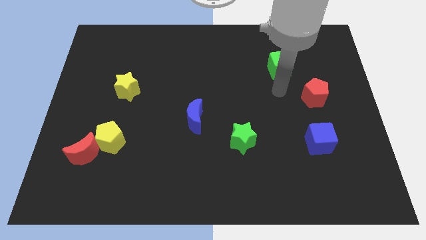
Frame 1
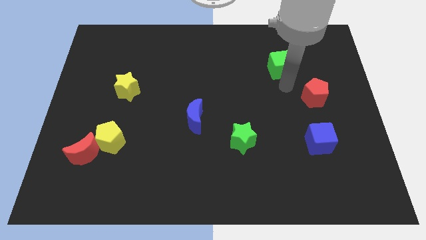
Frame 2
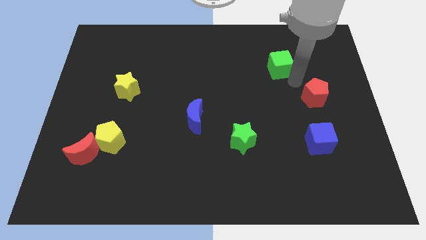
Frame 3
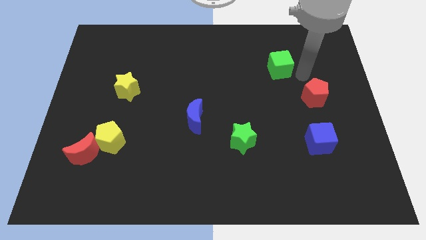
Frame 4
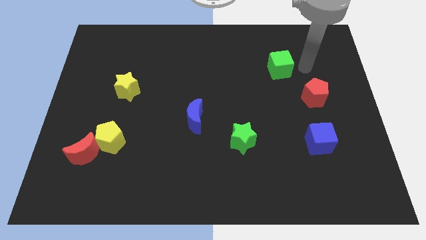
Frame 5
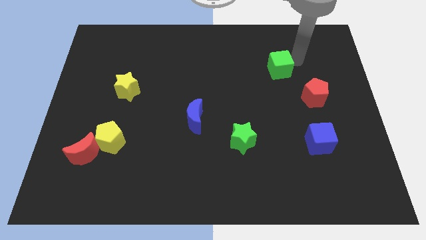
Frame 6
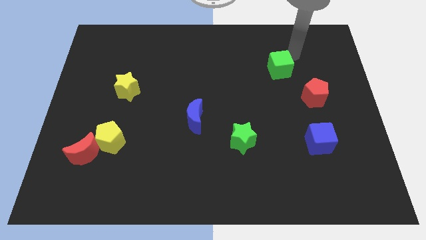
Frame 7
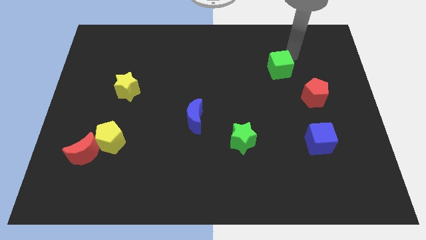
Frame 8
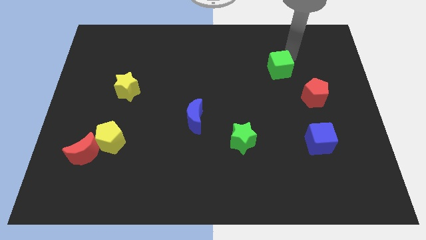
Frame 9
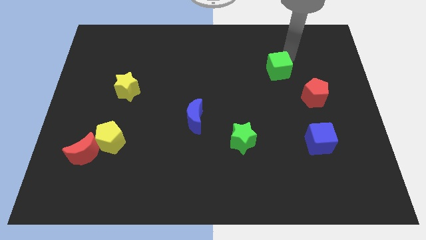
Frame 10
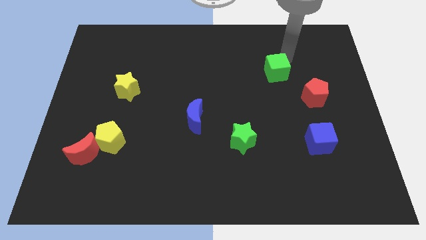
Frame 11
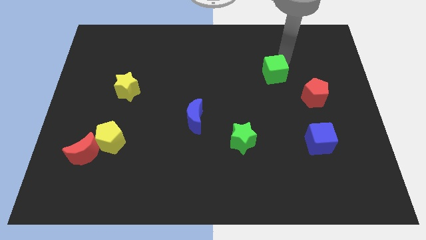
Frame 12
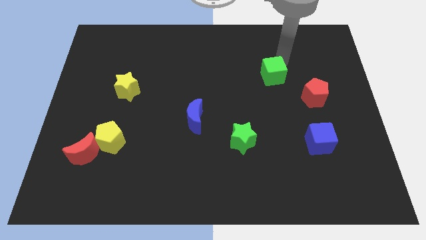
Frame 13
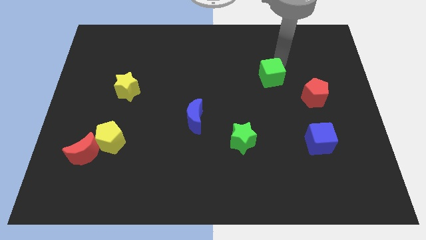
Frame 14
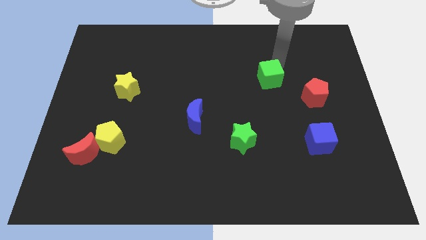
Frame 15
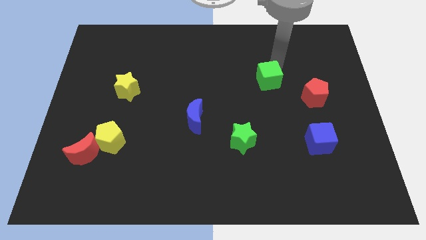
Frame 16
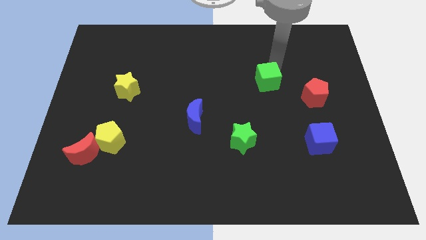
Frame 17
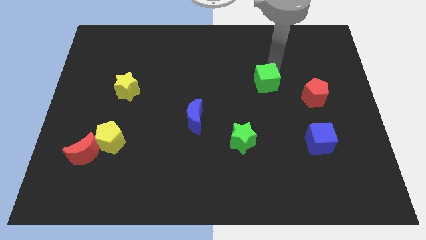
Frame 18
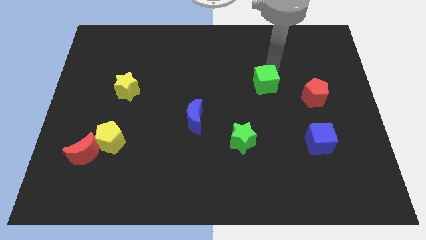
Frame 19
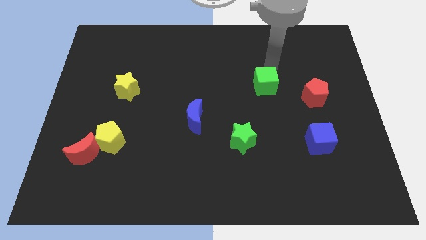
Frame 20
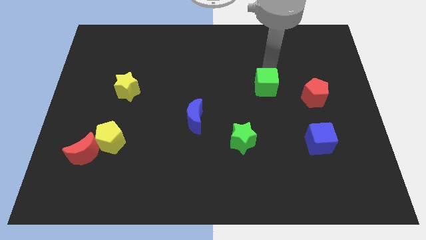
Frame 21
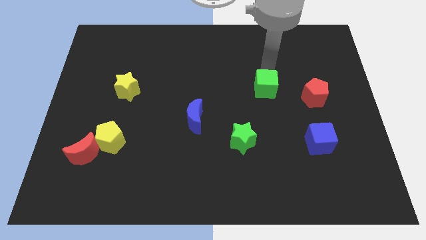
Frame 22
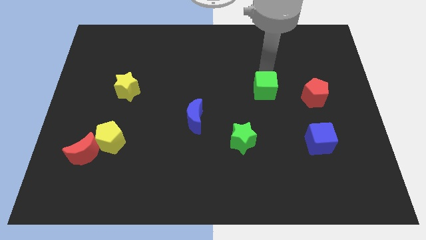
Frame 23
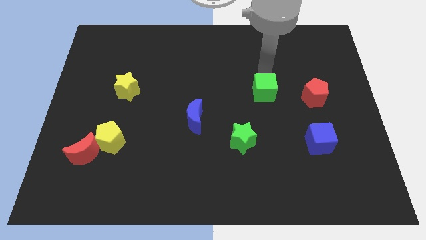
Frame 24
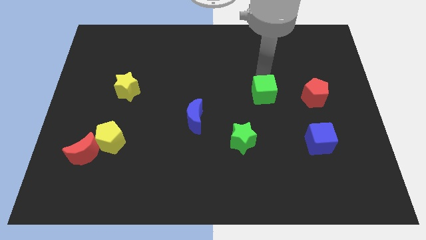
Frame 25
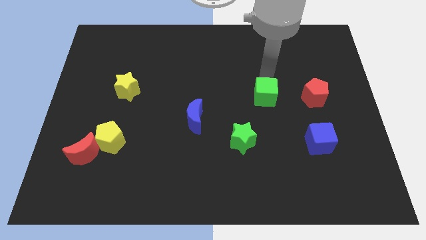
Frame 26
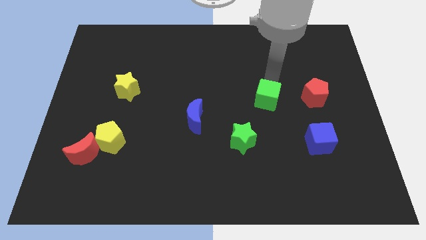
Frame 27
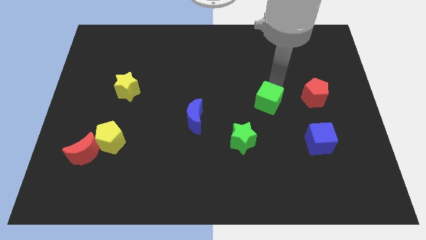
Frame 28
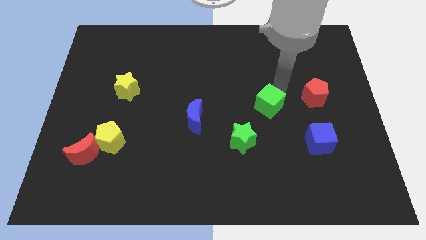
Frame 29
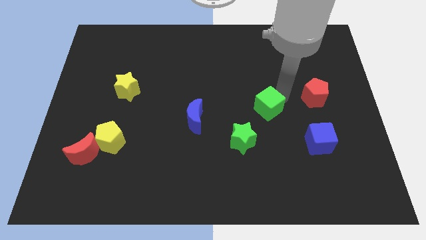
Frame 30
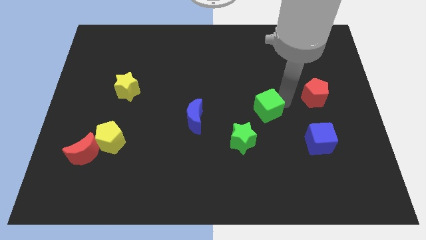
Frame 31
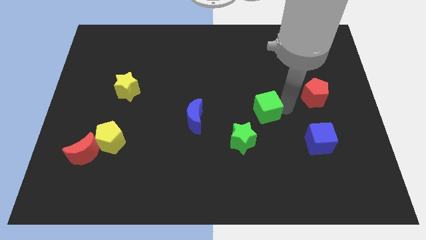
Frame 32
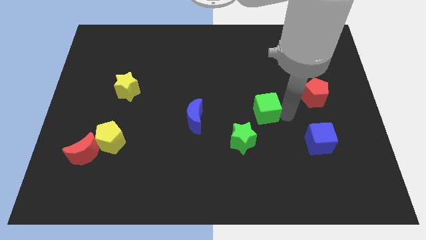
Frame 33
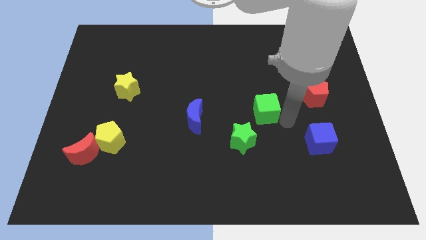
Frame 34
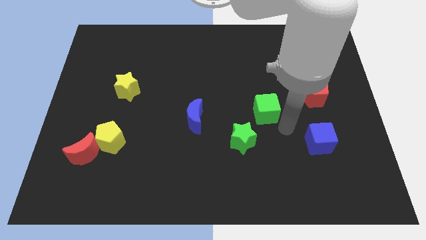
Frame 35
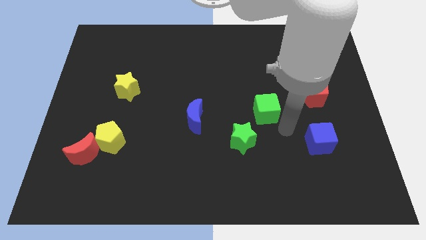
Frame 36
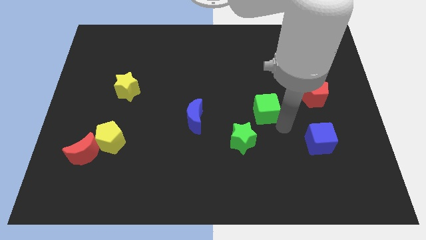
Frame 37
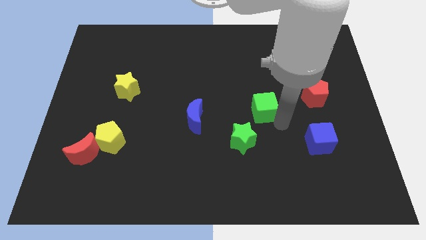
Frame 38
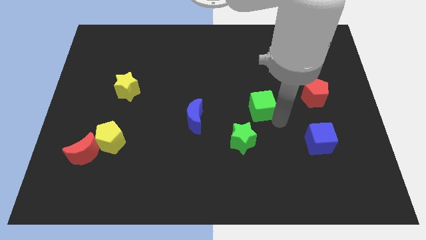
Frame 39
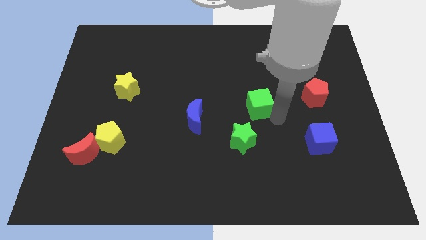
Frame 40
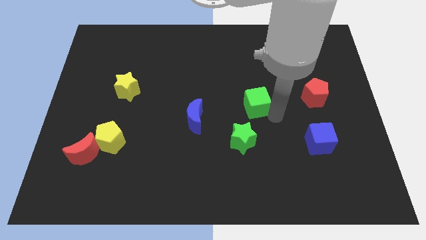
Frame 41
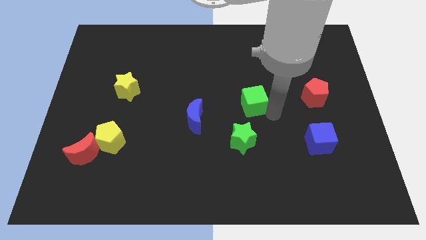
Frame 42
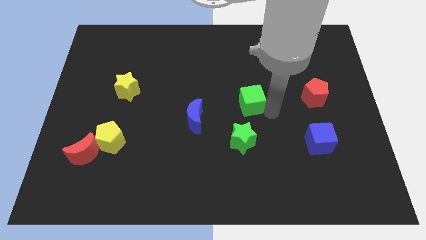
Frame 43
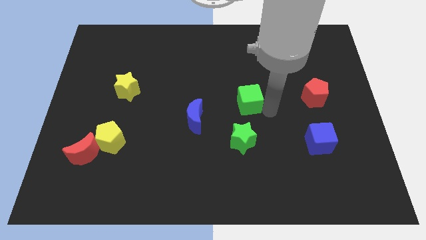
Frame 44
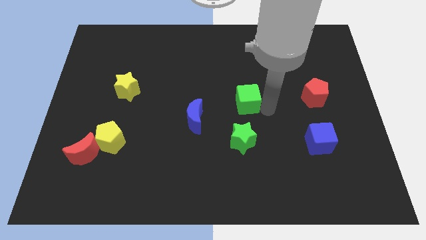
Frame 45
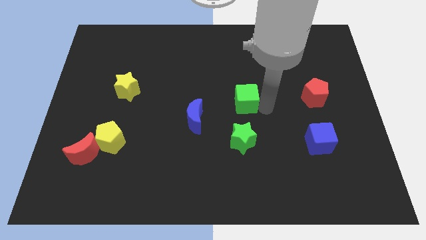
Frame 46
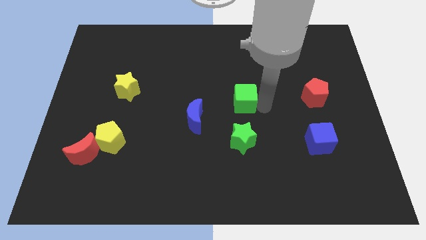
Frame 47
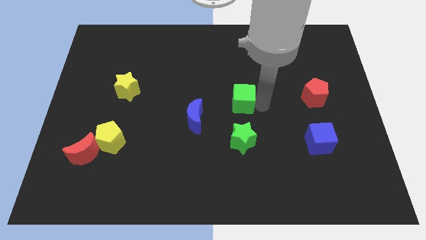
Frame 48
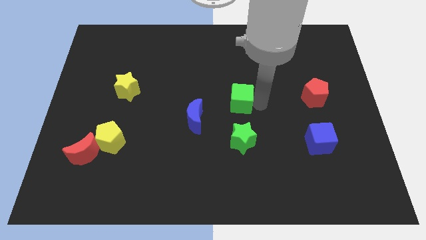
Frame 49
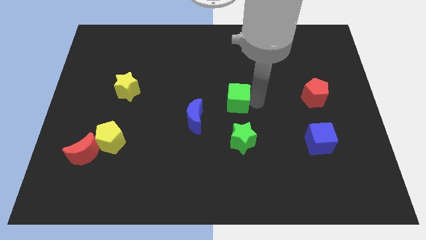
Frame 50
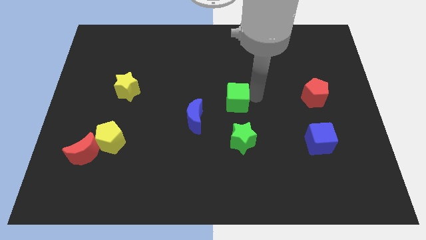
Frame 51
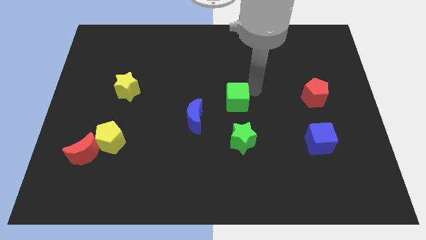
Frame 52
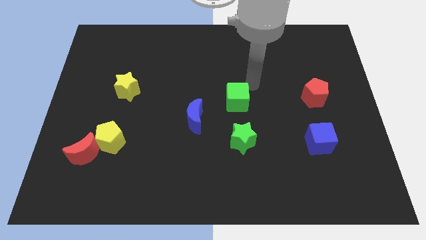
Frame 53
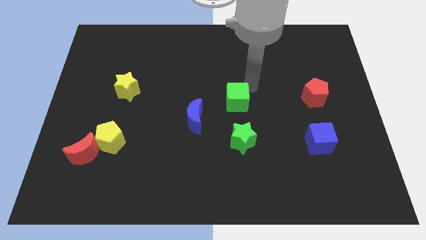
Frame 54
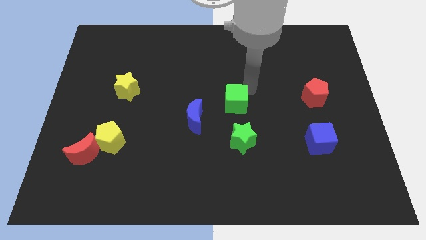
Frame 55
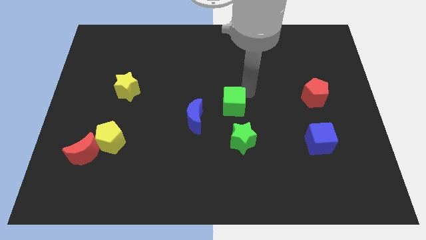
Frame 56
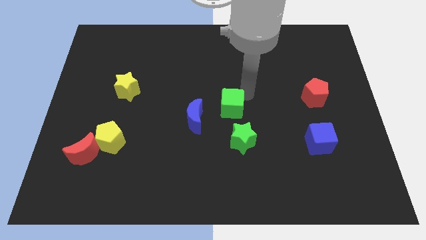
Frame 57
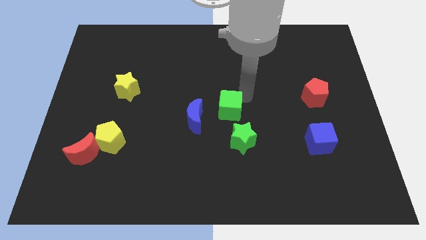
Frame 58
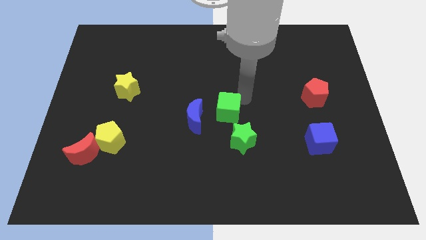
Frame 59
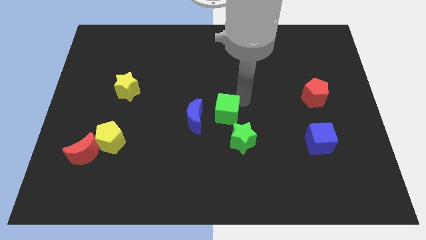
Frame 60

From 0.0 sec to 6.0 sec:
move the green cube down and left

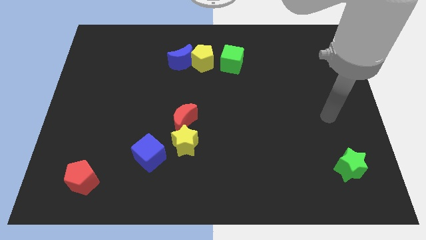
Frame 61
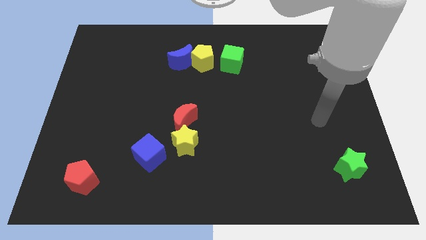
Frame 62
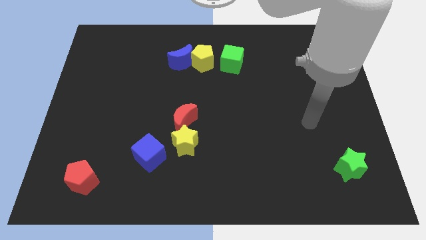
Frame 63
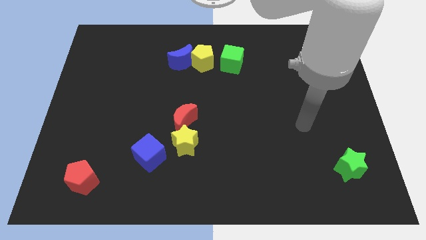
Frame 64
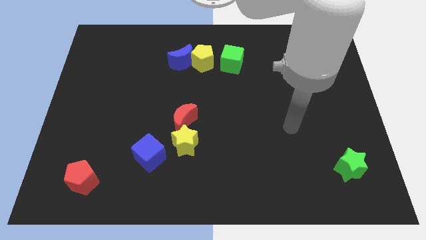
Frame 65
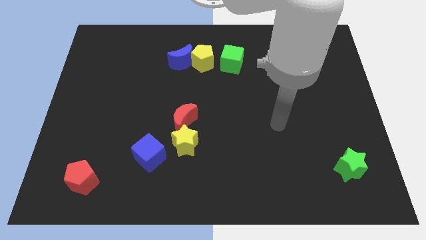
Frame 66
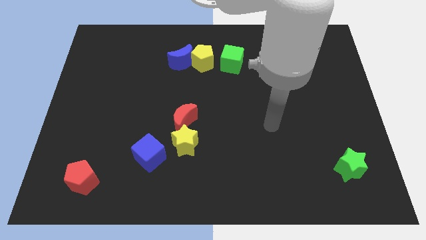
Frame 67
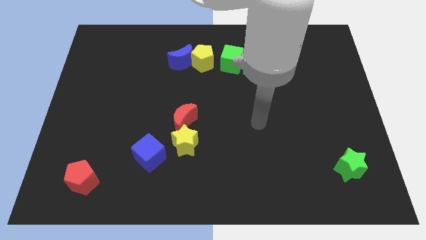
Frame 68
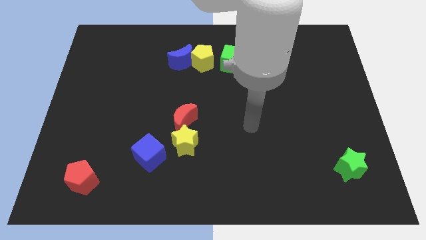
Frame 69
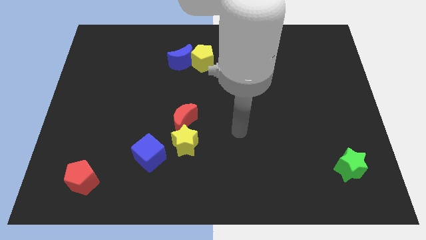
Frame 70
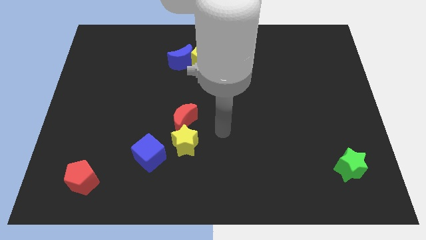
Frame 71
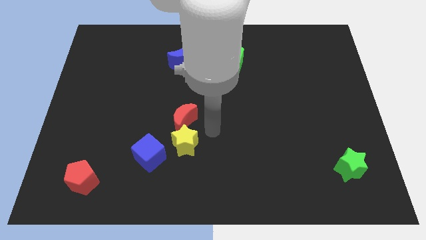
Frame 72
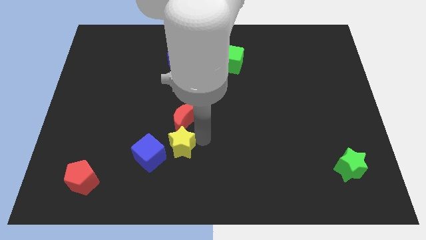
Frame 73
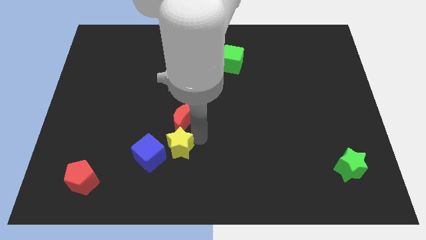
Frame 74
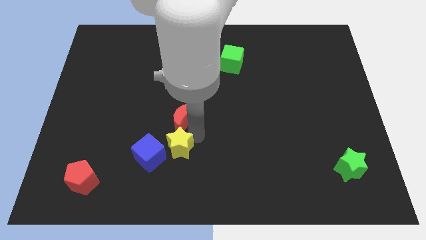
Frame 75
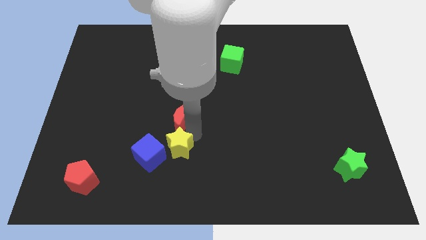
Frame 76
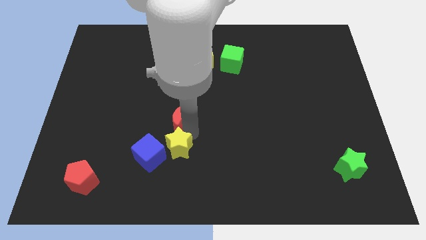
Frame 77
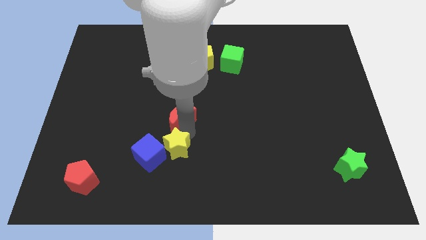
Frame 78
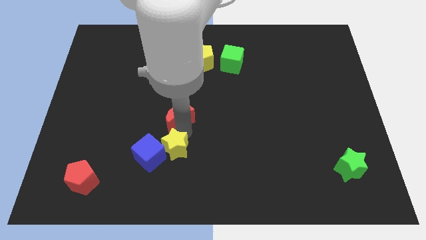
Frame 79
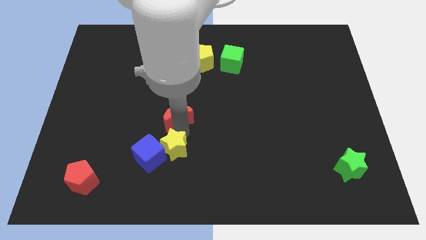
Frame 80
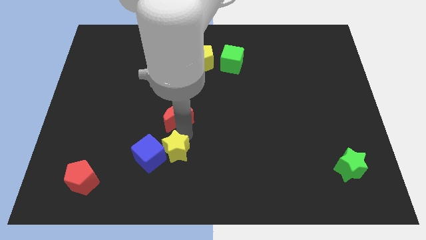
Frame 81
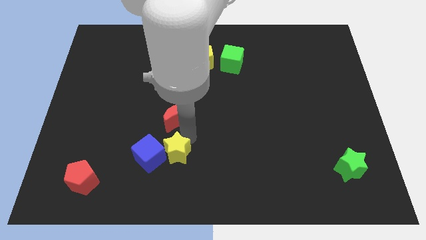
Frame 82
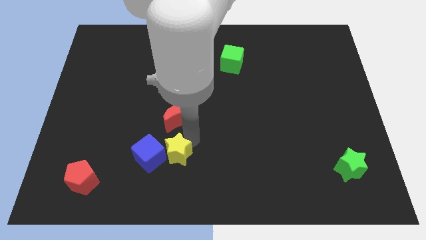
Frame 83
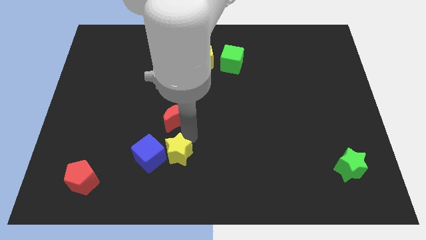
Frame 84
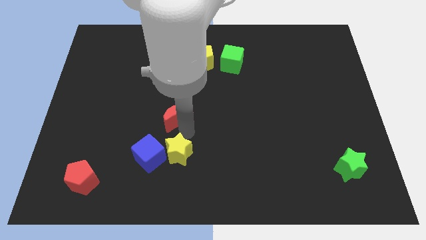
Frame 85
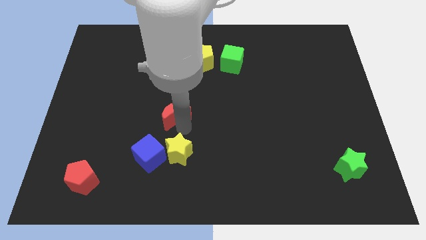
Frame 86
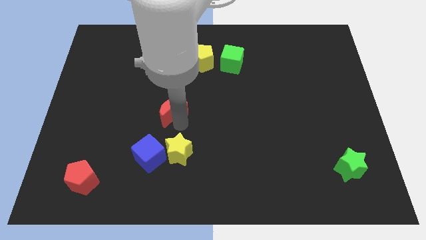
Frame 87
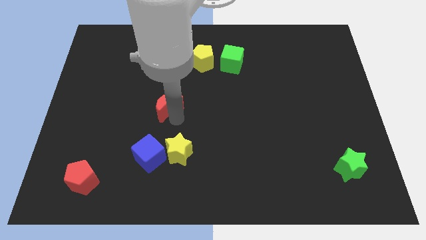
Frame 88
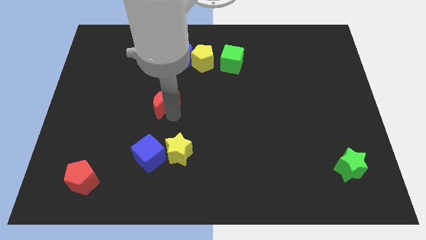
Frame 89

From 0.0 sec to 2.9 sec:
slightly slide the red moon diagonally up and left
